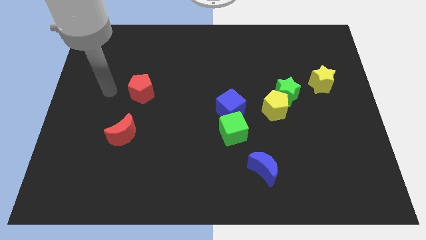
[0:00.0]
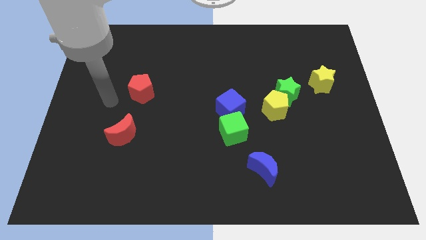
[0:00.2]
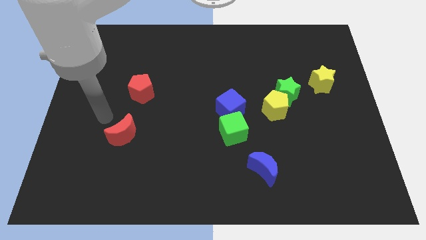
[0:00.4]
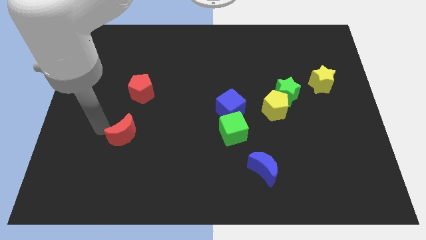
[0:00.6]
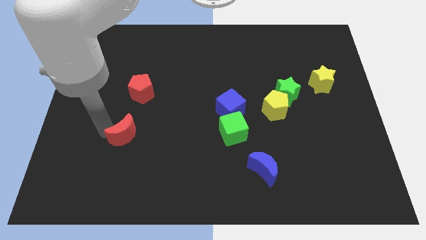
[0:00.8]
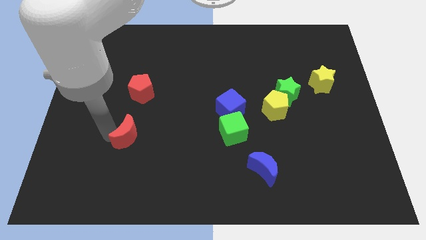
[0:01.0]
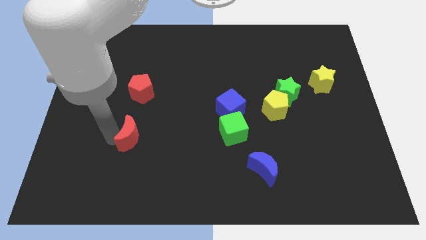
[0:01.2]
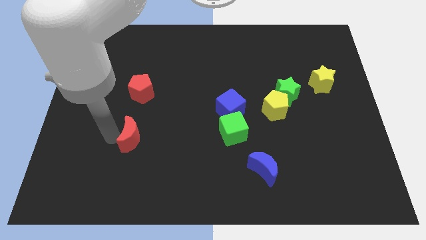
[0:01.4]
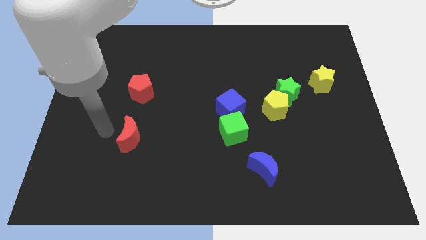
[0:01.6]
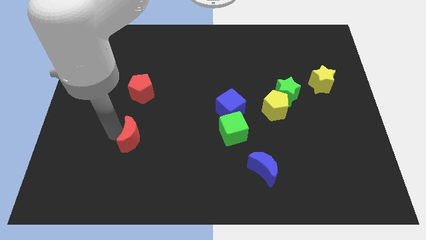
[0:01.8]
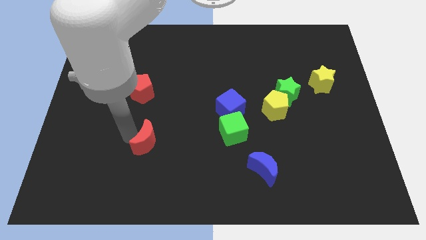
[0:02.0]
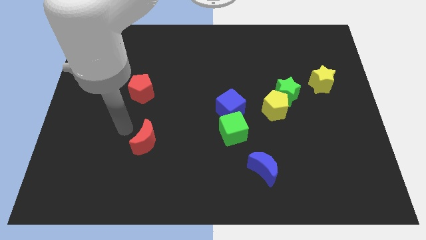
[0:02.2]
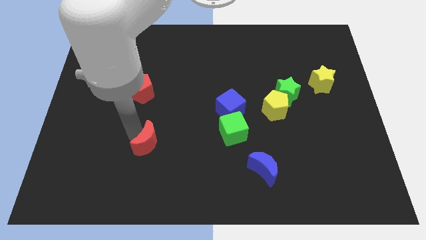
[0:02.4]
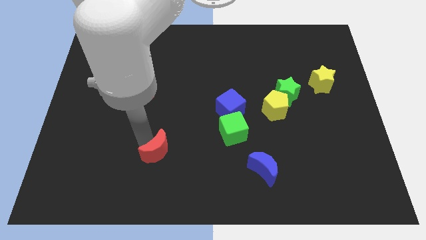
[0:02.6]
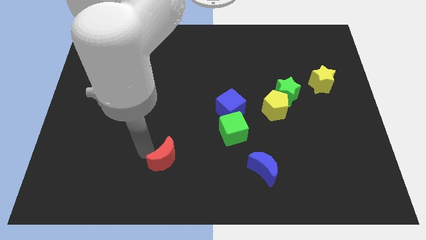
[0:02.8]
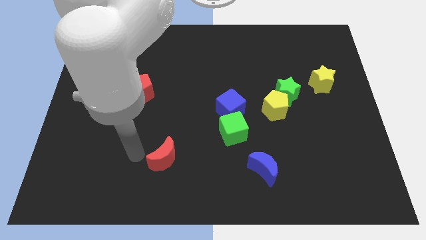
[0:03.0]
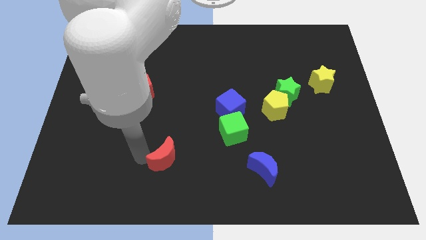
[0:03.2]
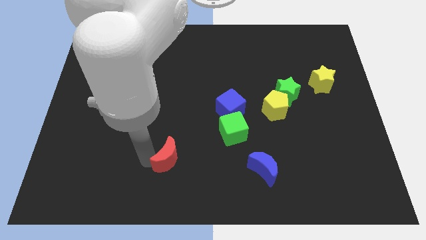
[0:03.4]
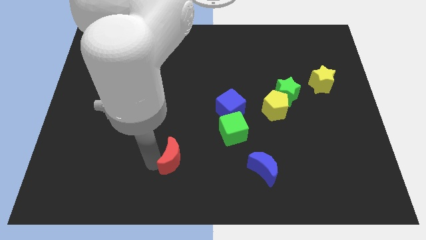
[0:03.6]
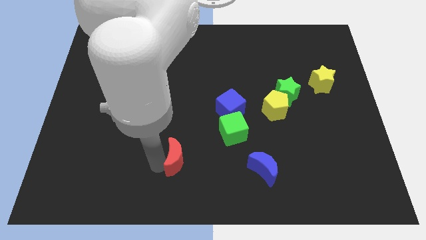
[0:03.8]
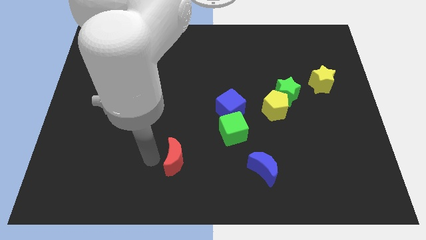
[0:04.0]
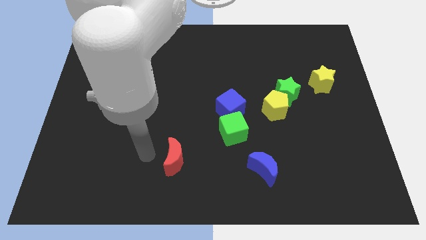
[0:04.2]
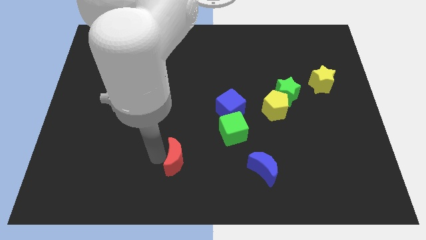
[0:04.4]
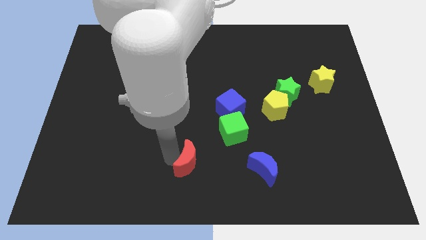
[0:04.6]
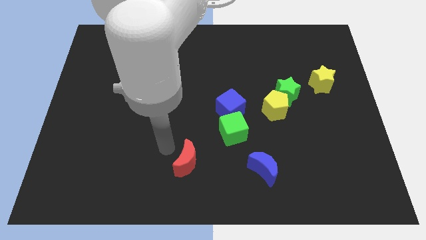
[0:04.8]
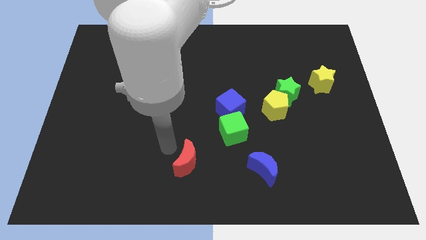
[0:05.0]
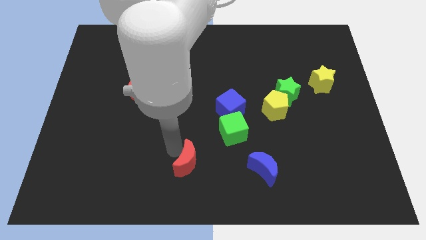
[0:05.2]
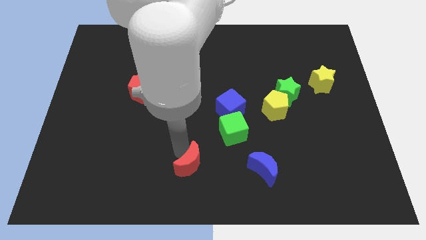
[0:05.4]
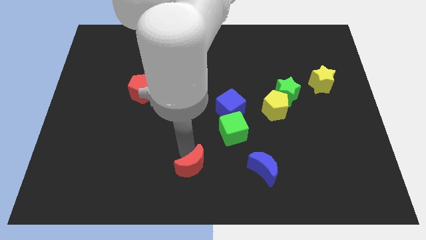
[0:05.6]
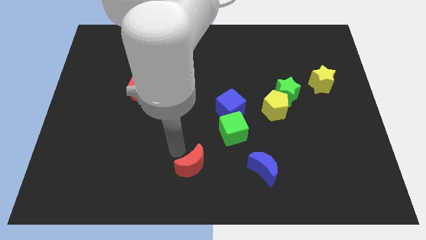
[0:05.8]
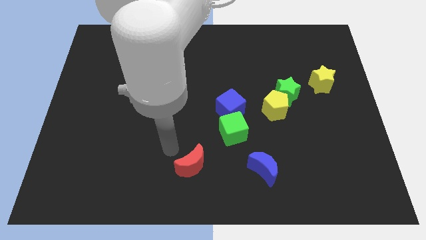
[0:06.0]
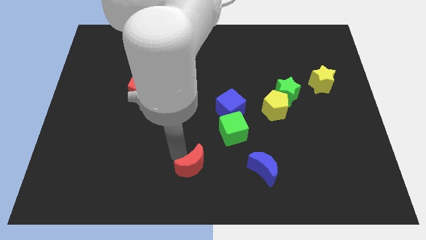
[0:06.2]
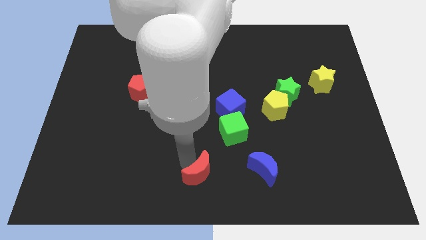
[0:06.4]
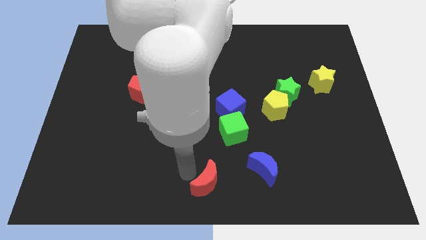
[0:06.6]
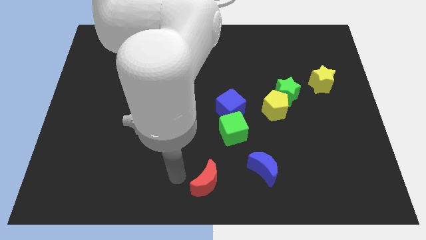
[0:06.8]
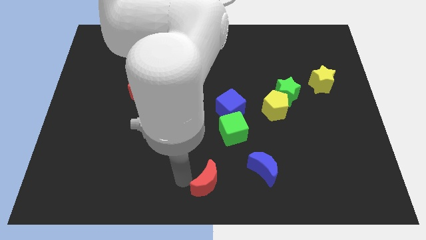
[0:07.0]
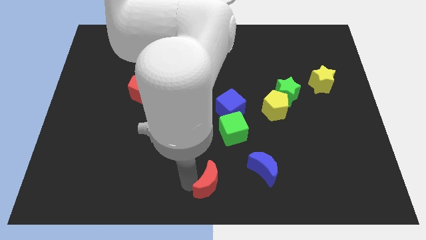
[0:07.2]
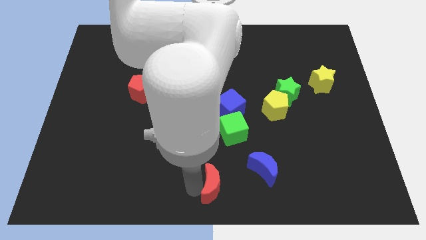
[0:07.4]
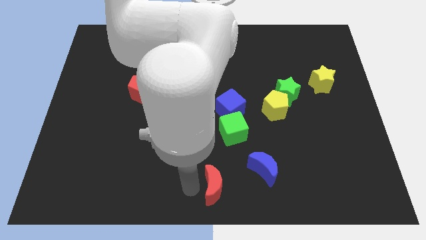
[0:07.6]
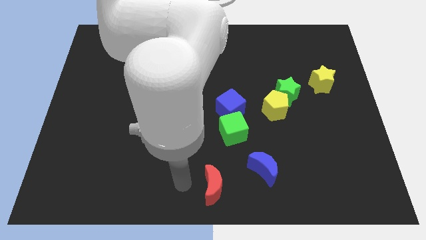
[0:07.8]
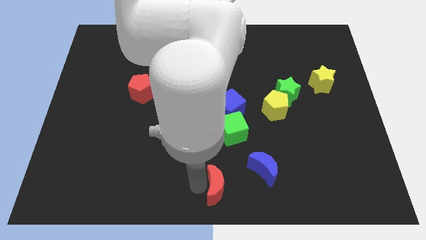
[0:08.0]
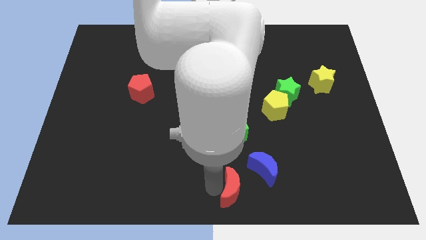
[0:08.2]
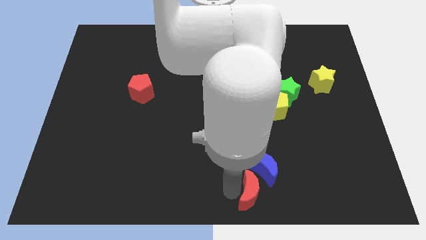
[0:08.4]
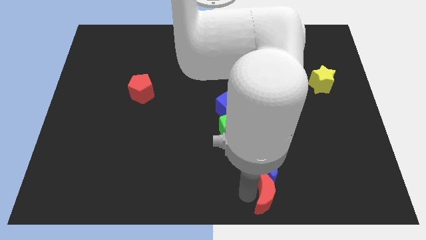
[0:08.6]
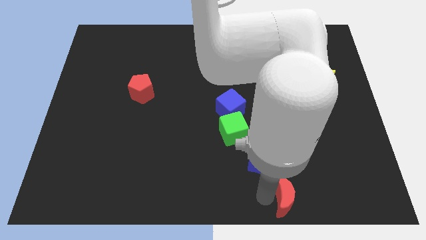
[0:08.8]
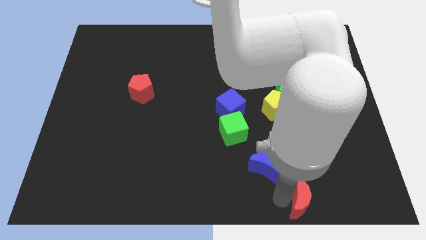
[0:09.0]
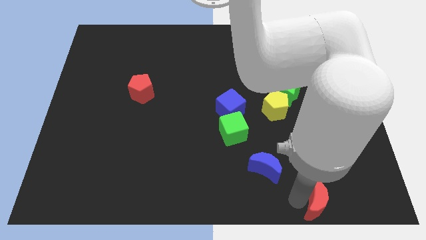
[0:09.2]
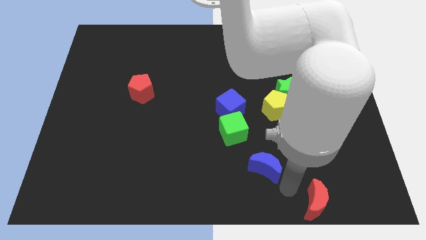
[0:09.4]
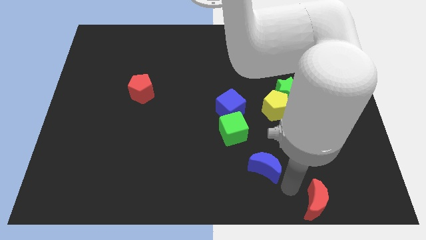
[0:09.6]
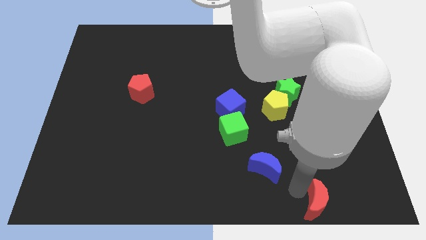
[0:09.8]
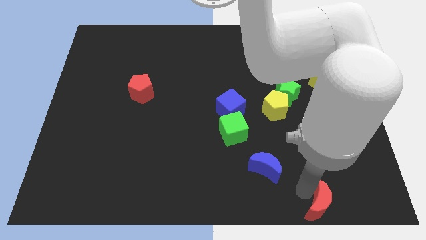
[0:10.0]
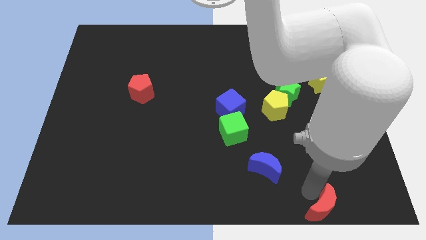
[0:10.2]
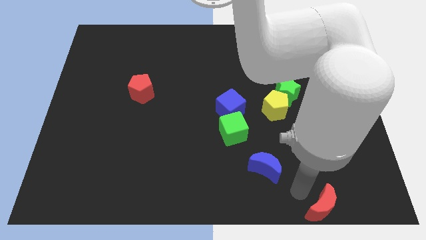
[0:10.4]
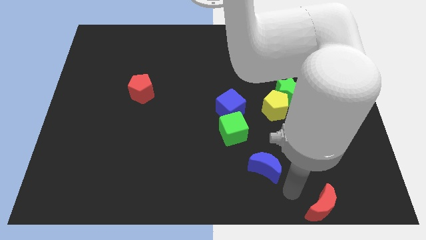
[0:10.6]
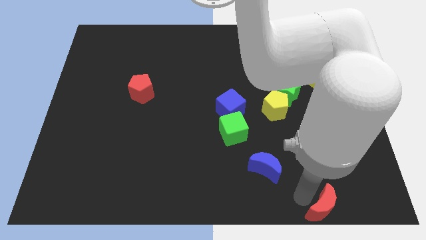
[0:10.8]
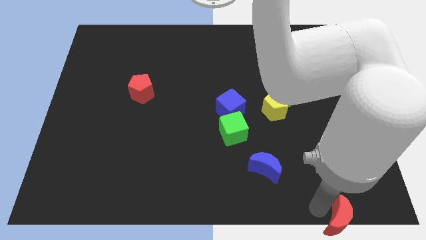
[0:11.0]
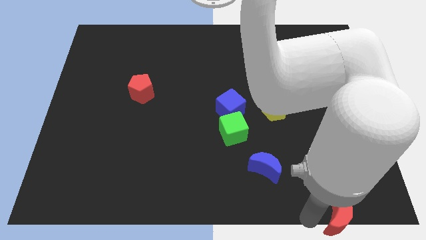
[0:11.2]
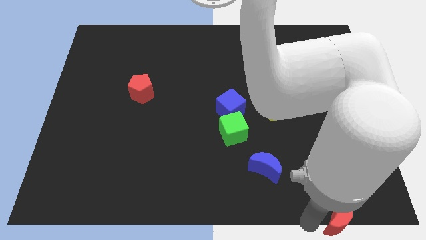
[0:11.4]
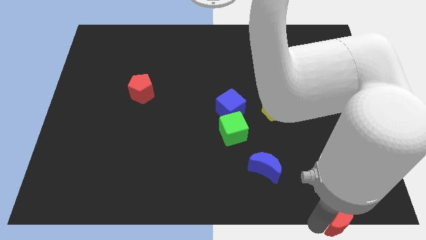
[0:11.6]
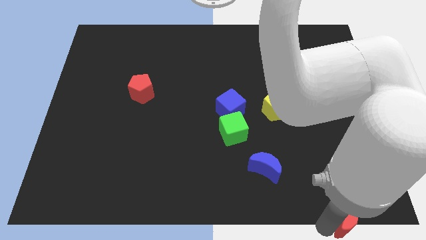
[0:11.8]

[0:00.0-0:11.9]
move the red moon to the lower right corner
